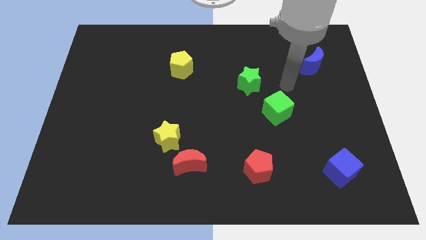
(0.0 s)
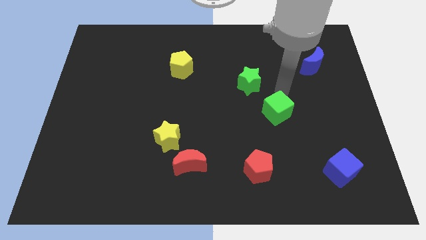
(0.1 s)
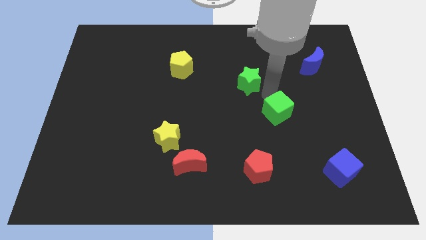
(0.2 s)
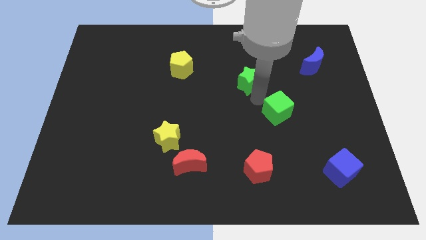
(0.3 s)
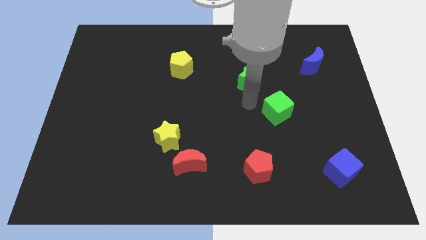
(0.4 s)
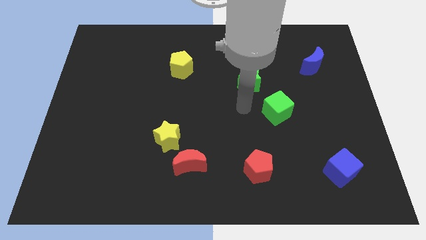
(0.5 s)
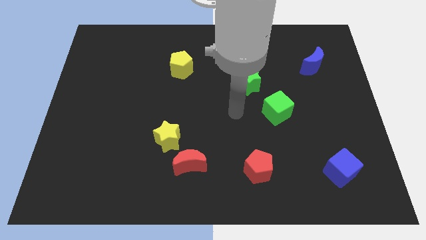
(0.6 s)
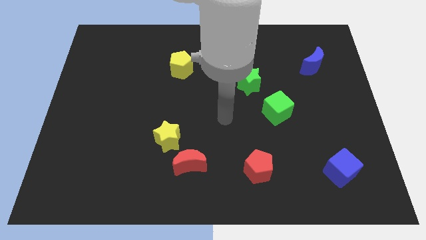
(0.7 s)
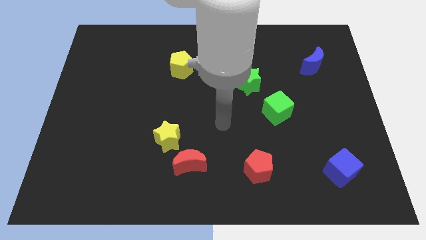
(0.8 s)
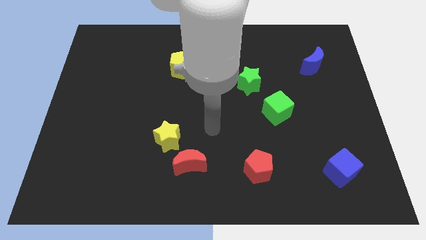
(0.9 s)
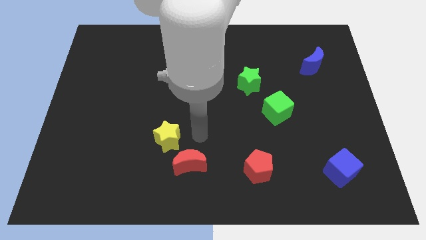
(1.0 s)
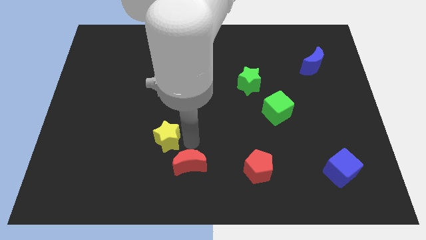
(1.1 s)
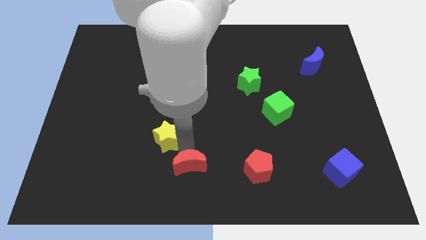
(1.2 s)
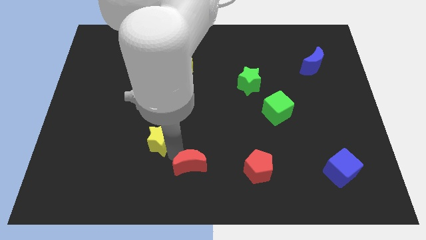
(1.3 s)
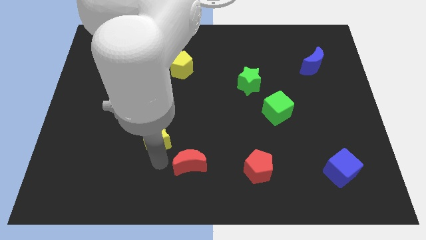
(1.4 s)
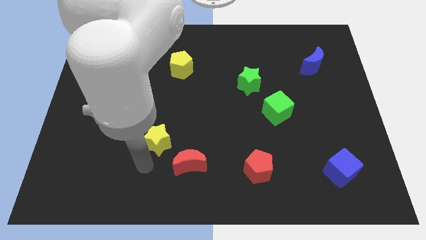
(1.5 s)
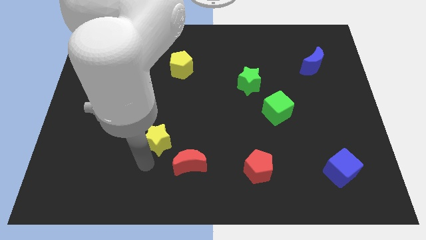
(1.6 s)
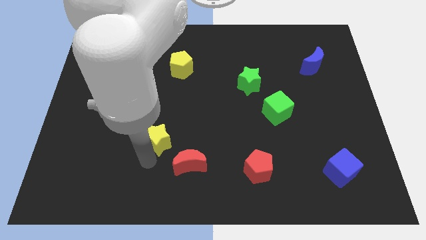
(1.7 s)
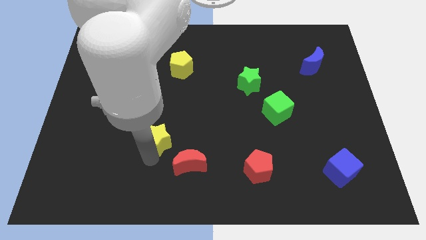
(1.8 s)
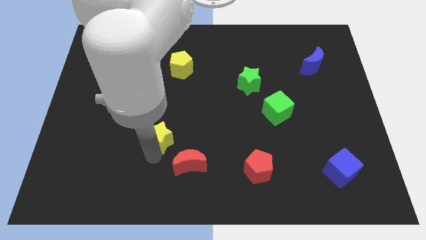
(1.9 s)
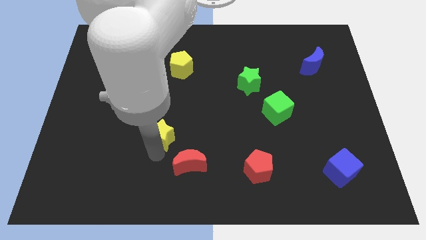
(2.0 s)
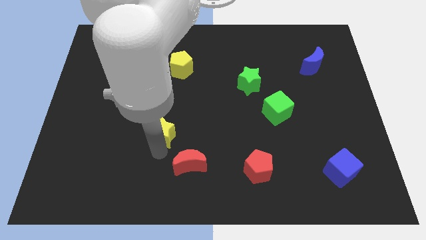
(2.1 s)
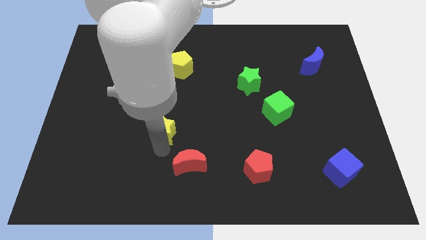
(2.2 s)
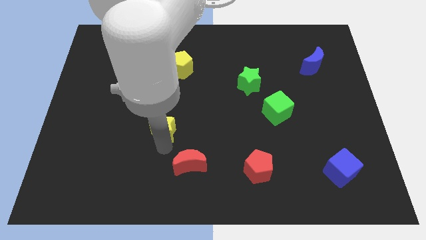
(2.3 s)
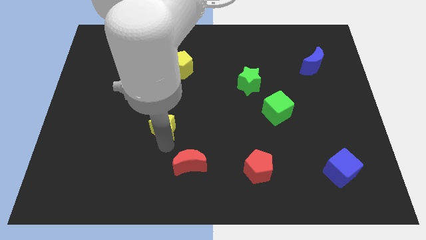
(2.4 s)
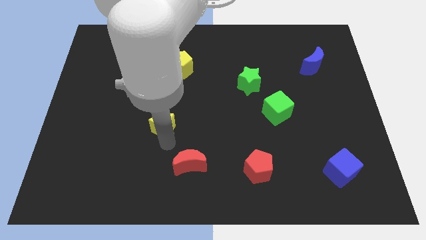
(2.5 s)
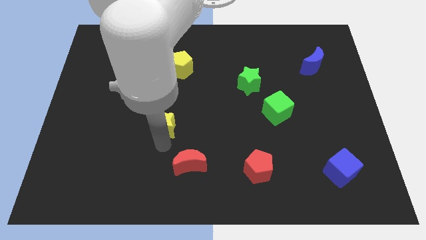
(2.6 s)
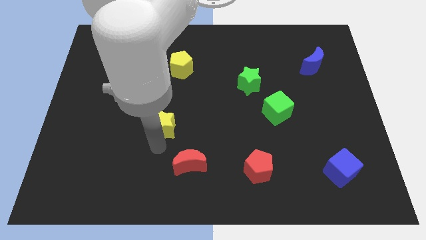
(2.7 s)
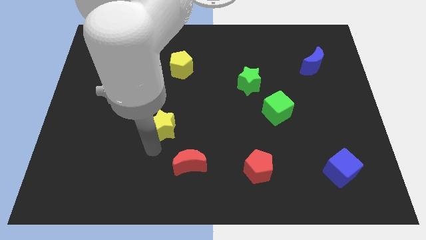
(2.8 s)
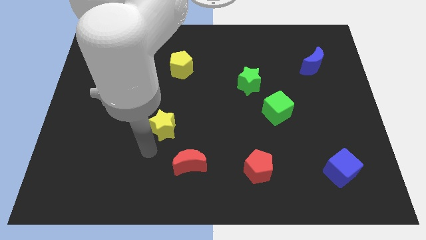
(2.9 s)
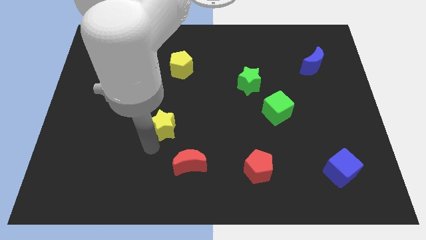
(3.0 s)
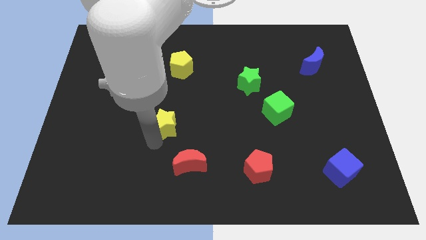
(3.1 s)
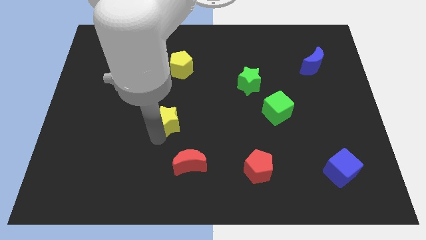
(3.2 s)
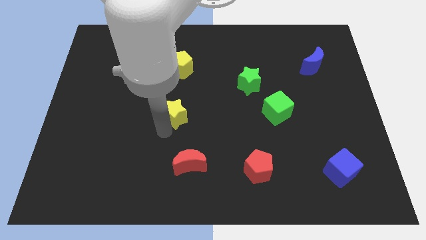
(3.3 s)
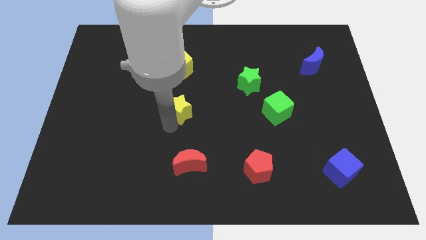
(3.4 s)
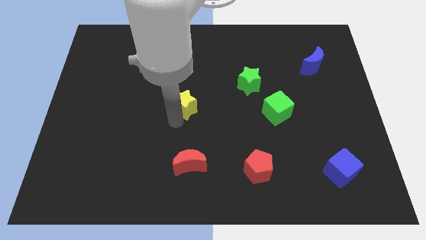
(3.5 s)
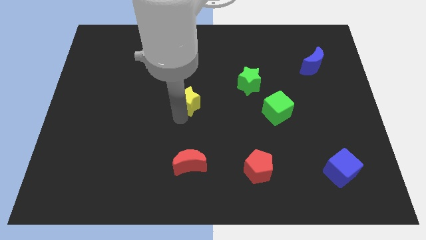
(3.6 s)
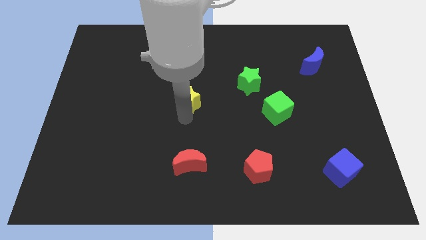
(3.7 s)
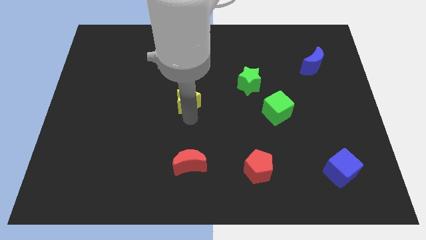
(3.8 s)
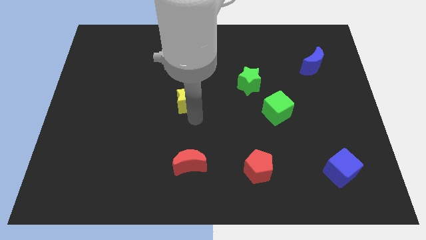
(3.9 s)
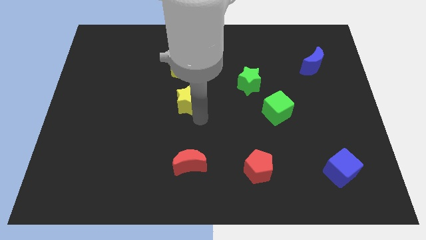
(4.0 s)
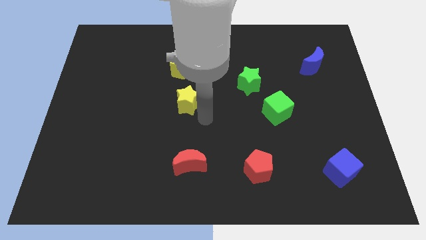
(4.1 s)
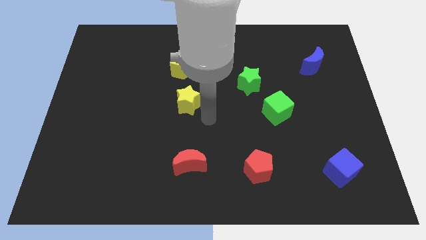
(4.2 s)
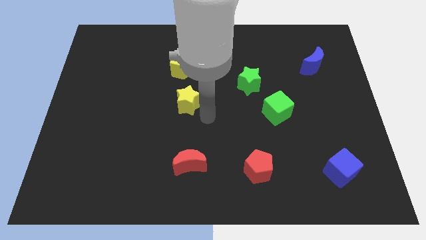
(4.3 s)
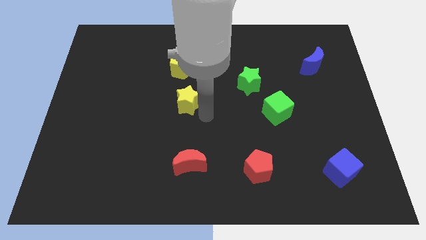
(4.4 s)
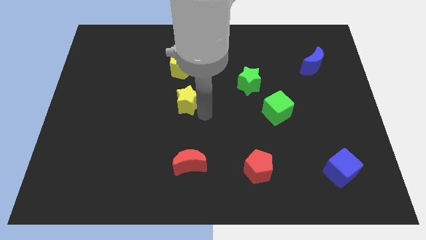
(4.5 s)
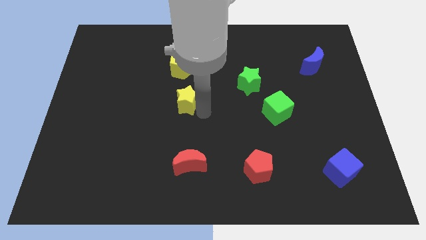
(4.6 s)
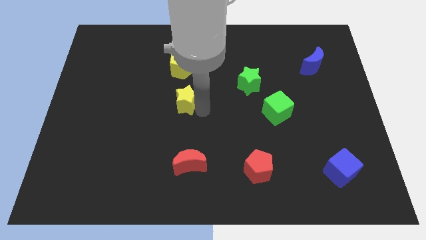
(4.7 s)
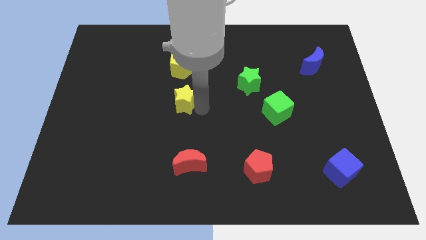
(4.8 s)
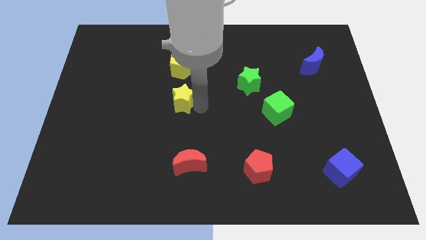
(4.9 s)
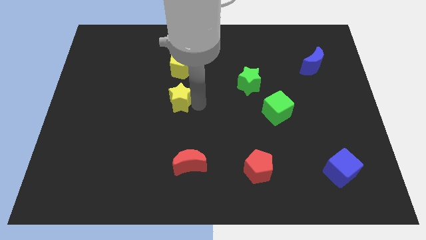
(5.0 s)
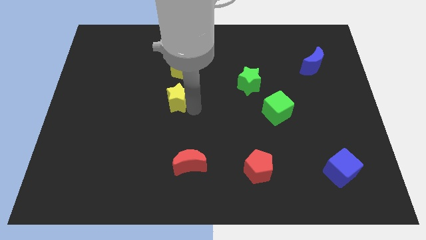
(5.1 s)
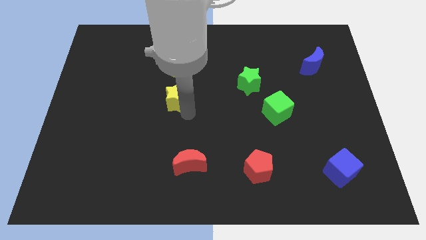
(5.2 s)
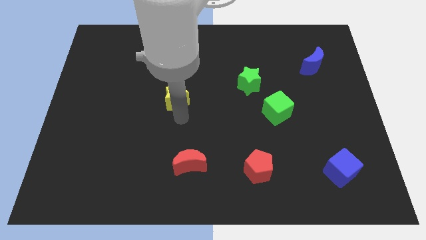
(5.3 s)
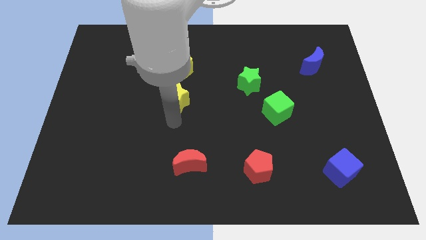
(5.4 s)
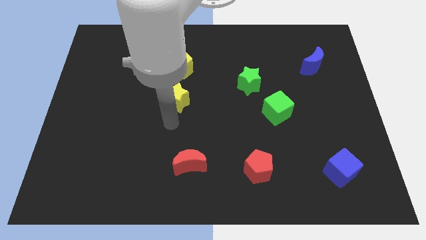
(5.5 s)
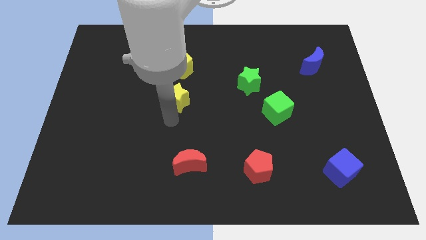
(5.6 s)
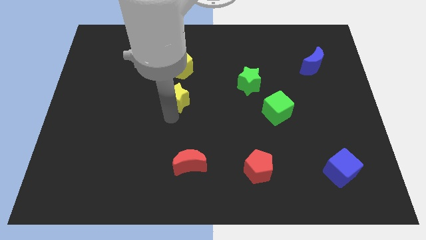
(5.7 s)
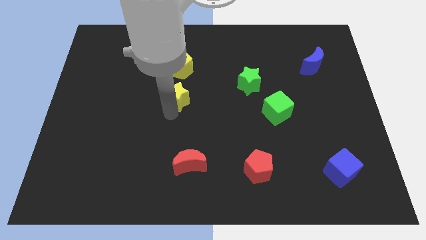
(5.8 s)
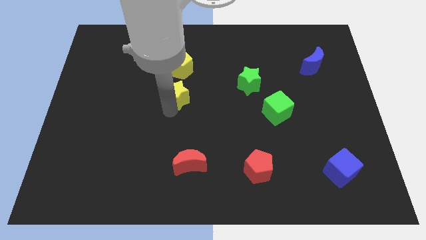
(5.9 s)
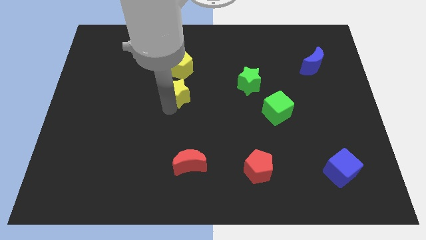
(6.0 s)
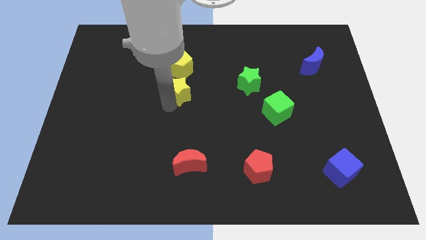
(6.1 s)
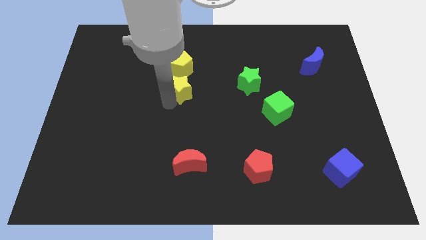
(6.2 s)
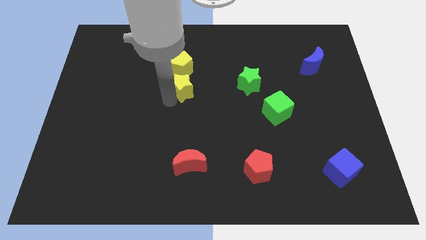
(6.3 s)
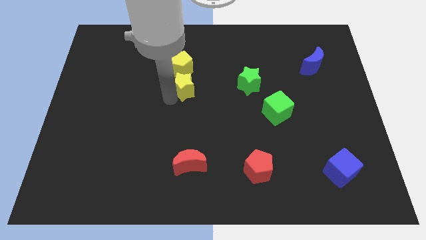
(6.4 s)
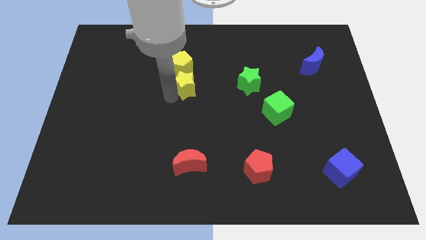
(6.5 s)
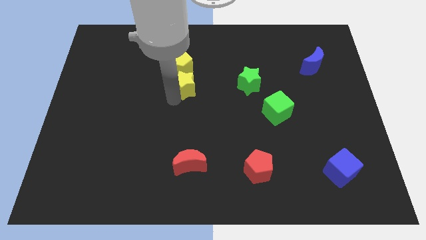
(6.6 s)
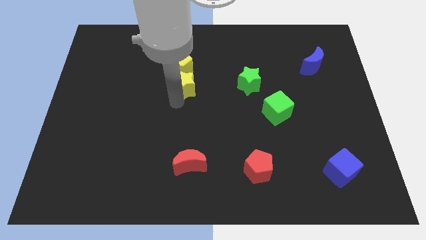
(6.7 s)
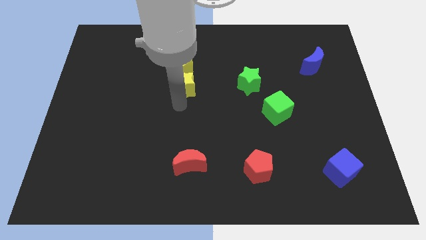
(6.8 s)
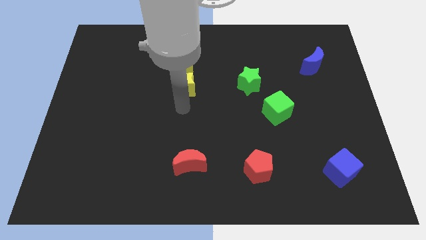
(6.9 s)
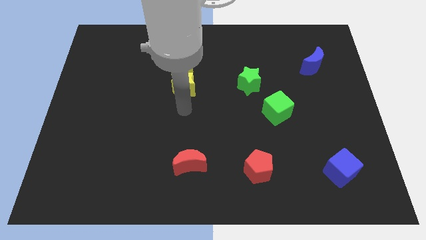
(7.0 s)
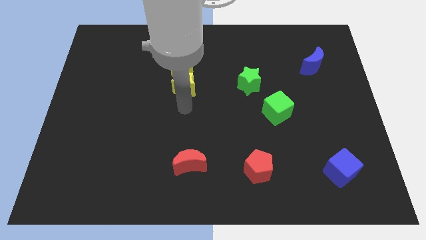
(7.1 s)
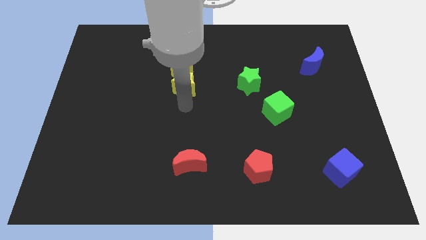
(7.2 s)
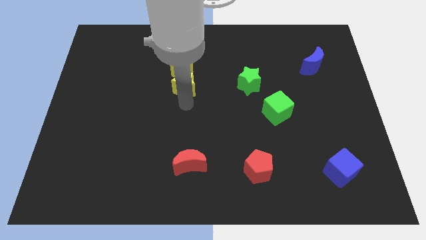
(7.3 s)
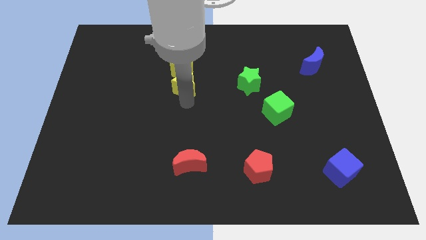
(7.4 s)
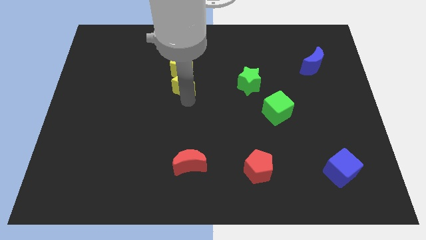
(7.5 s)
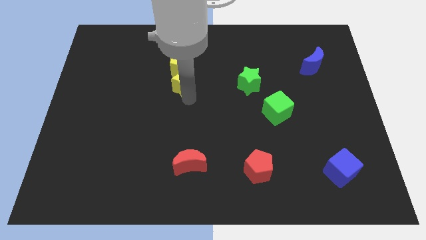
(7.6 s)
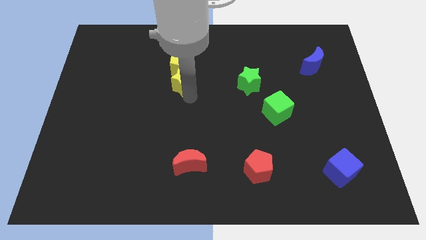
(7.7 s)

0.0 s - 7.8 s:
push the yellow star close to the yellow pentagon

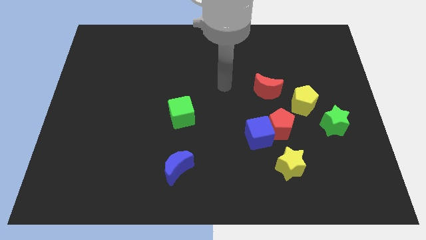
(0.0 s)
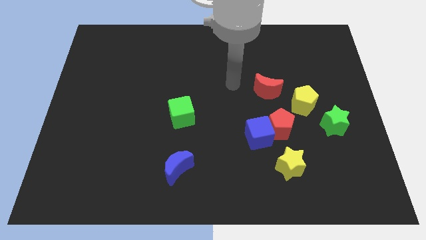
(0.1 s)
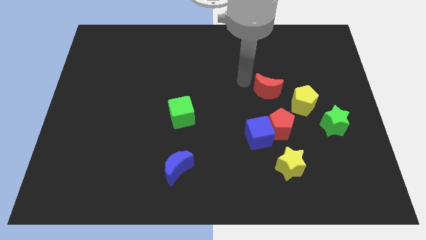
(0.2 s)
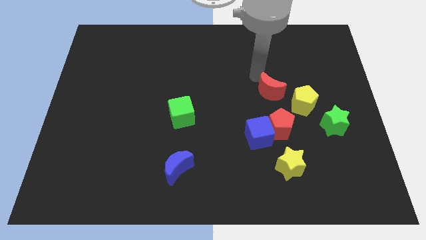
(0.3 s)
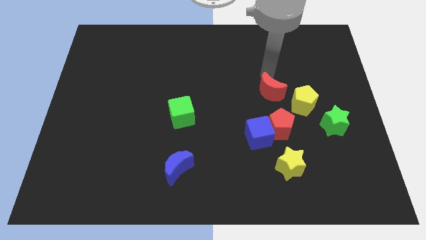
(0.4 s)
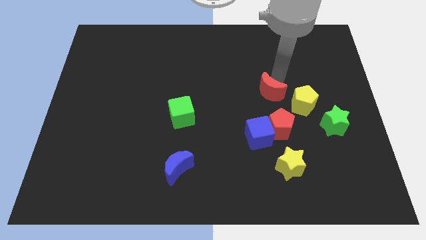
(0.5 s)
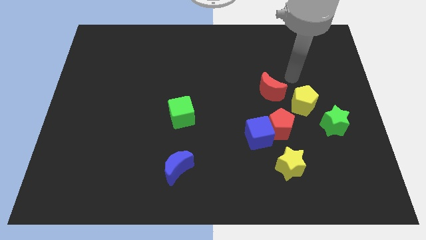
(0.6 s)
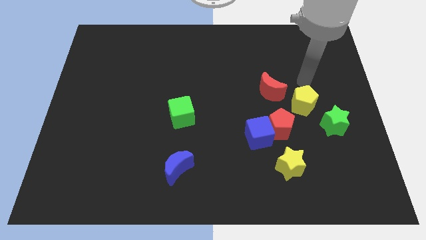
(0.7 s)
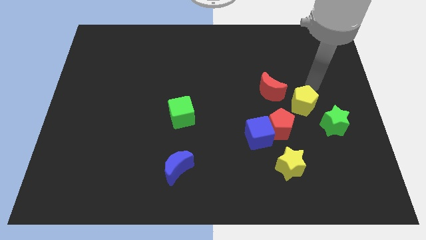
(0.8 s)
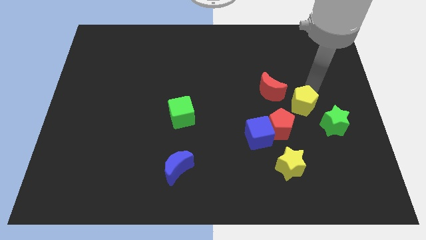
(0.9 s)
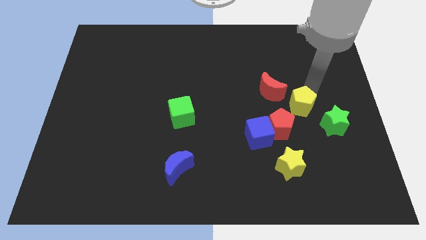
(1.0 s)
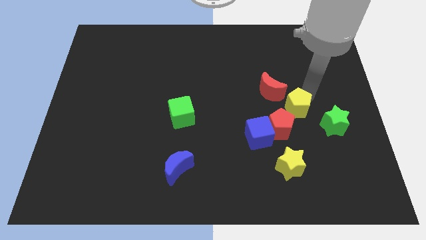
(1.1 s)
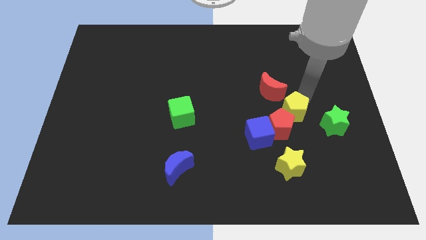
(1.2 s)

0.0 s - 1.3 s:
push the yellow pentagon to the red pentagon
